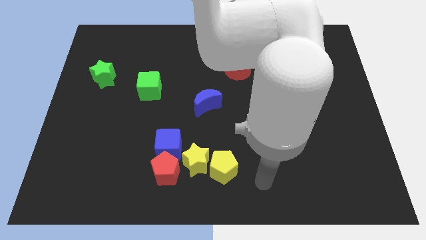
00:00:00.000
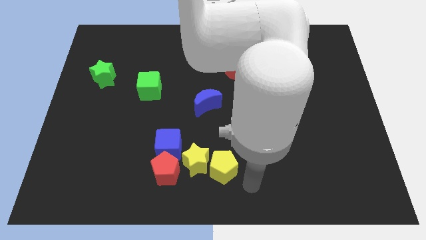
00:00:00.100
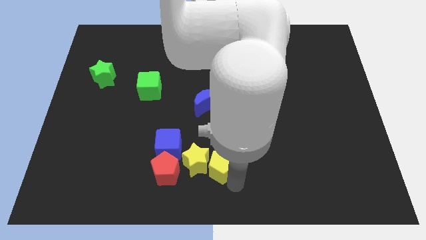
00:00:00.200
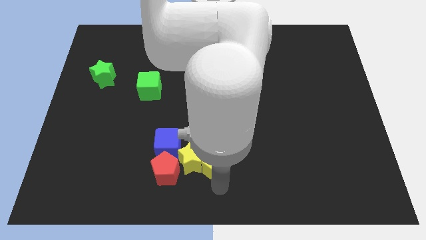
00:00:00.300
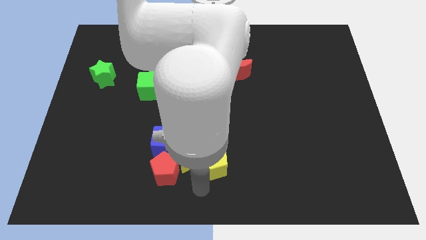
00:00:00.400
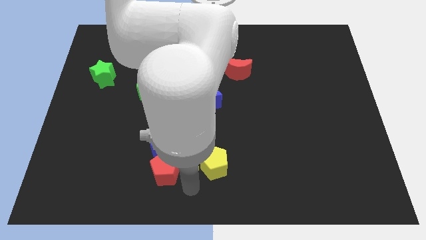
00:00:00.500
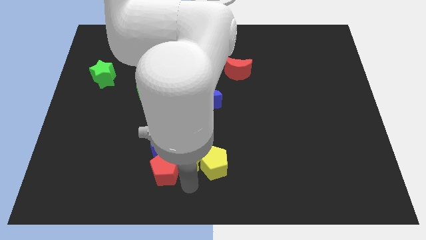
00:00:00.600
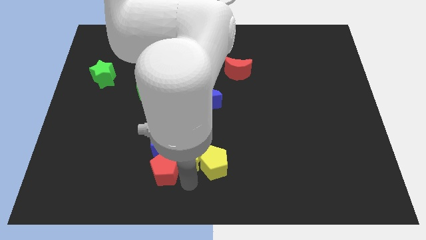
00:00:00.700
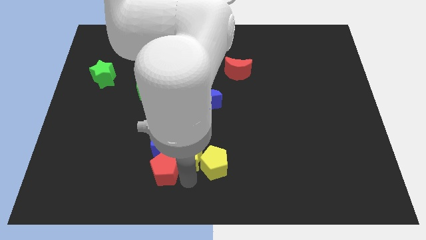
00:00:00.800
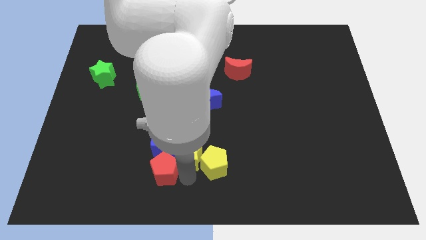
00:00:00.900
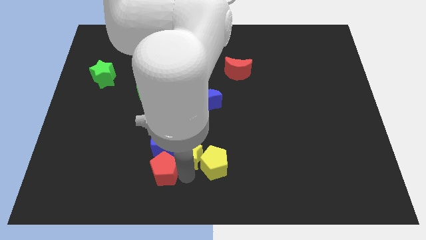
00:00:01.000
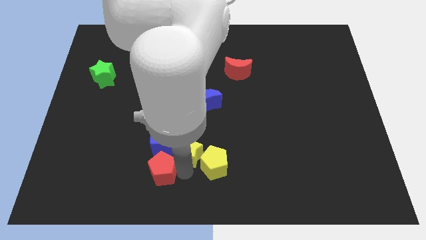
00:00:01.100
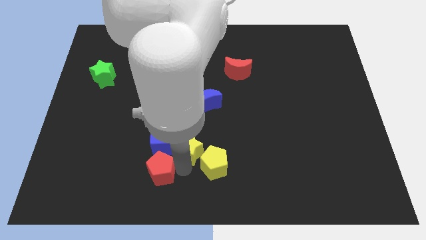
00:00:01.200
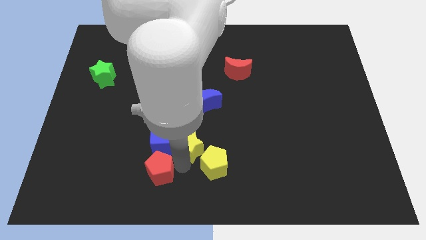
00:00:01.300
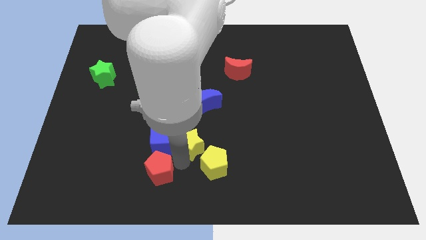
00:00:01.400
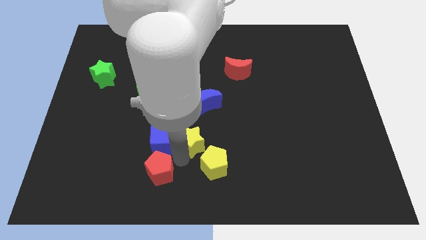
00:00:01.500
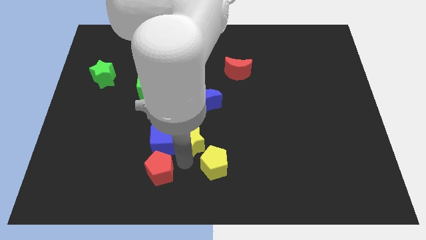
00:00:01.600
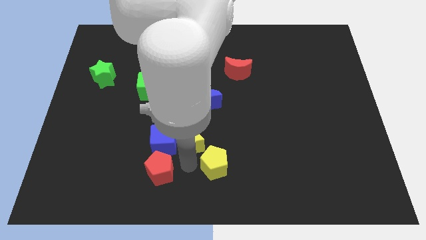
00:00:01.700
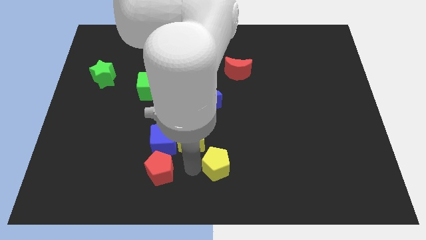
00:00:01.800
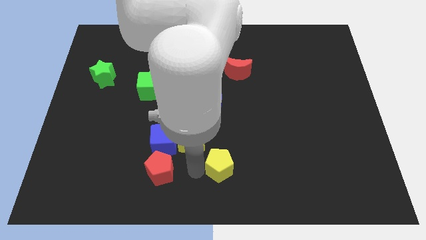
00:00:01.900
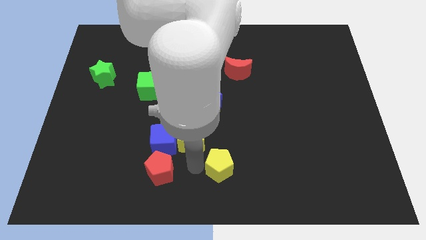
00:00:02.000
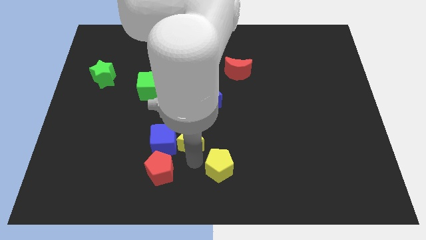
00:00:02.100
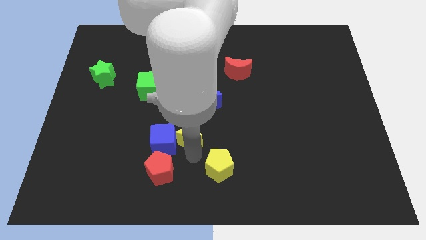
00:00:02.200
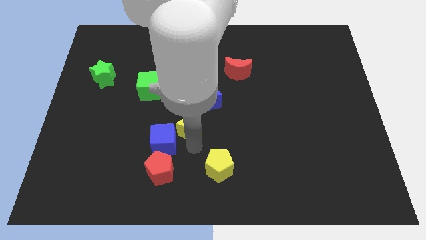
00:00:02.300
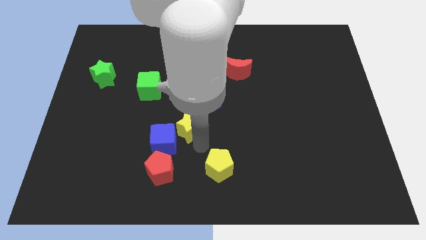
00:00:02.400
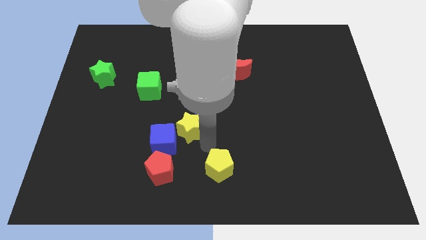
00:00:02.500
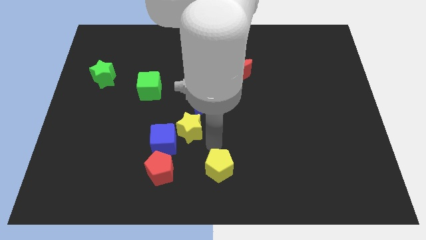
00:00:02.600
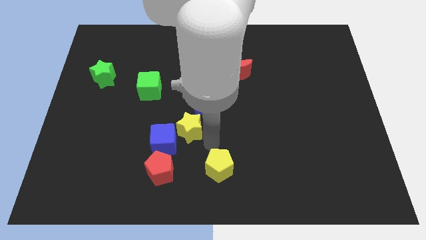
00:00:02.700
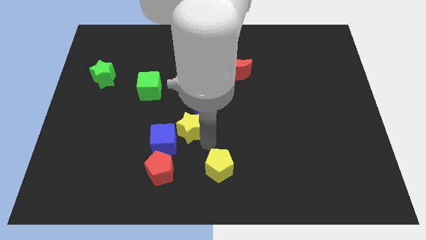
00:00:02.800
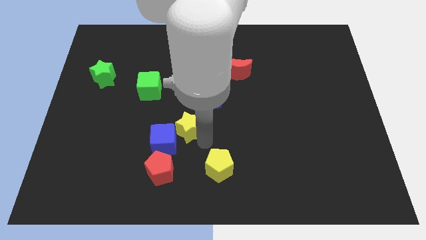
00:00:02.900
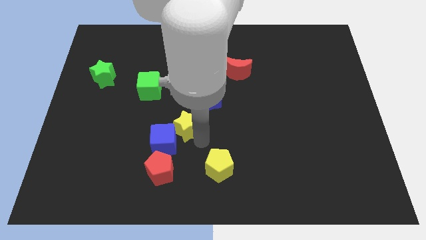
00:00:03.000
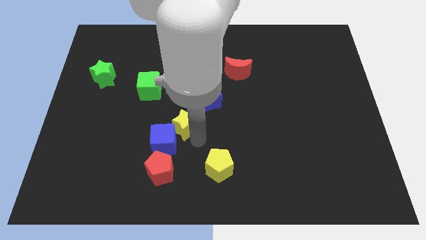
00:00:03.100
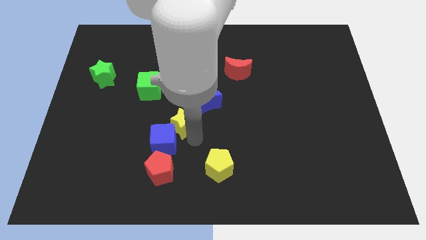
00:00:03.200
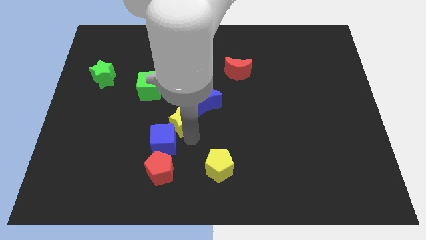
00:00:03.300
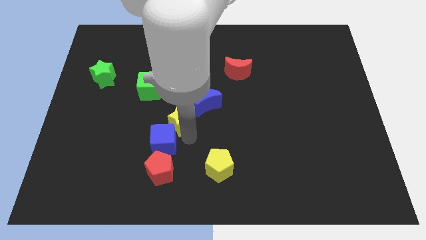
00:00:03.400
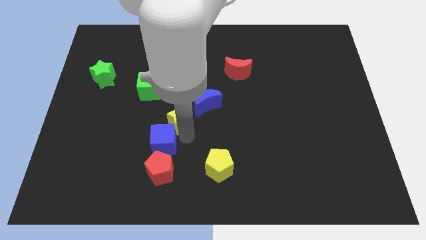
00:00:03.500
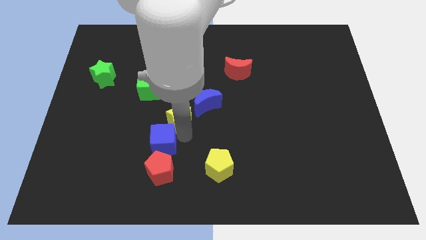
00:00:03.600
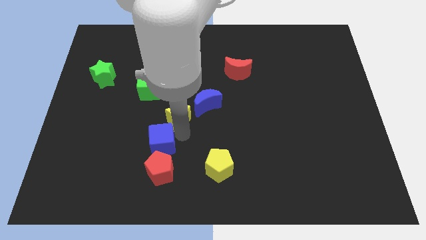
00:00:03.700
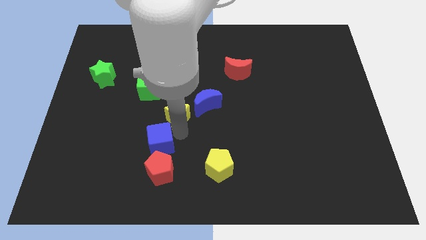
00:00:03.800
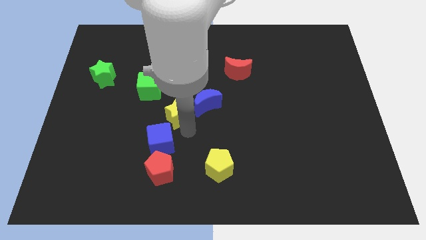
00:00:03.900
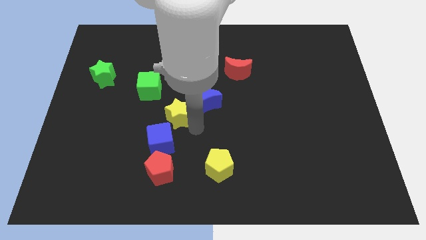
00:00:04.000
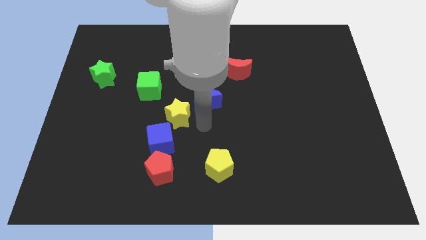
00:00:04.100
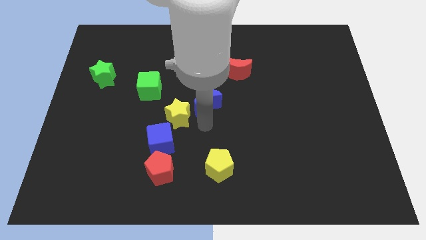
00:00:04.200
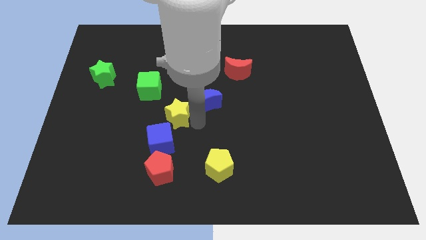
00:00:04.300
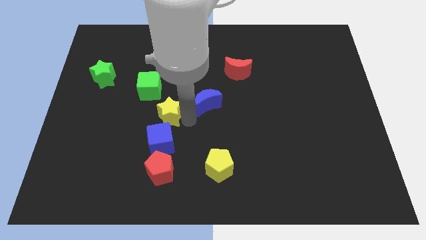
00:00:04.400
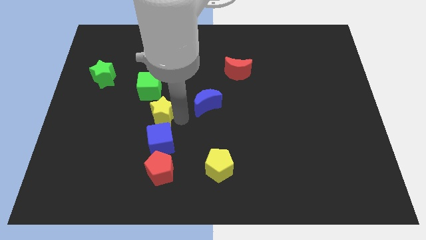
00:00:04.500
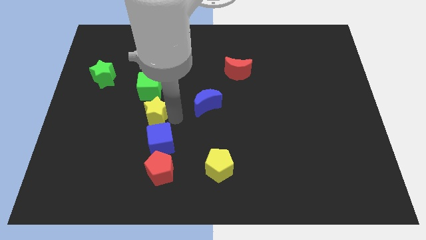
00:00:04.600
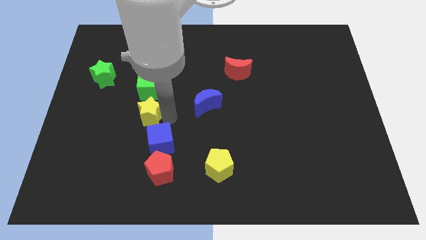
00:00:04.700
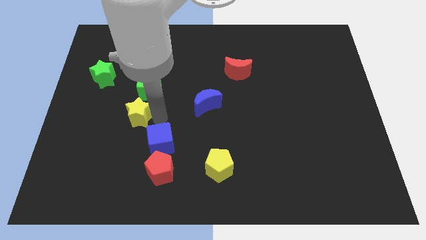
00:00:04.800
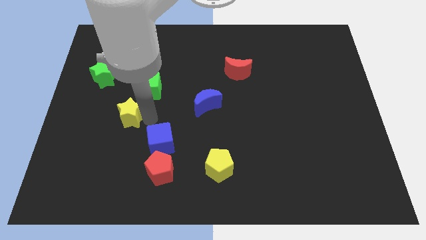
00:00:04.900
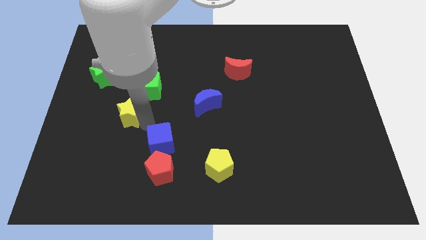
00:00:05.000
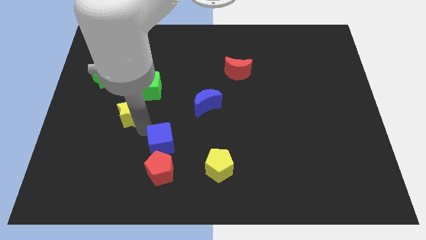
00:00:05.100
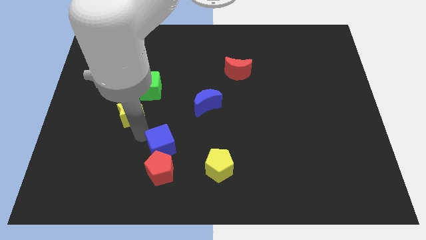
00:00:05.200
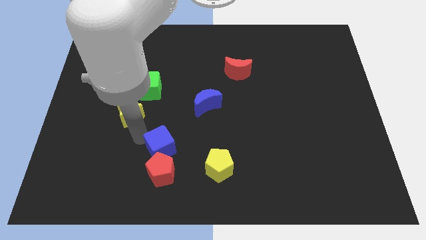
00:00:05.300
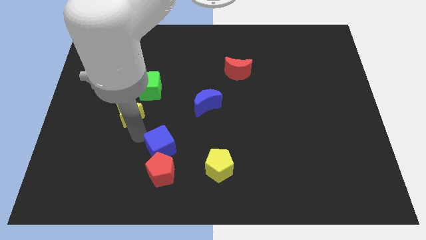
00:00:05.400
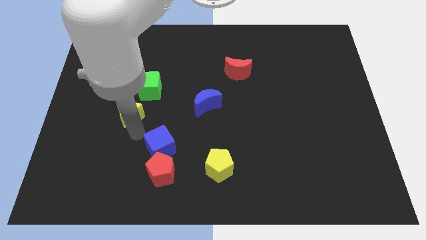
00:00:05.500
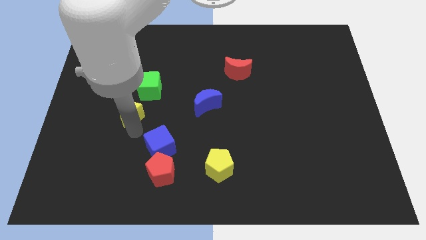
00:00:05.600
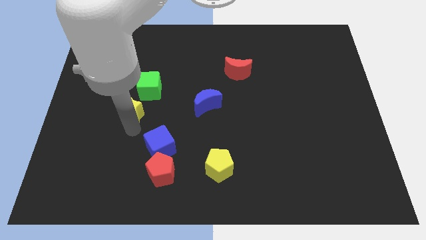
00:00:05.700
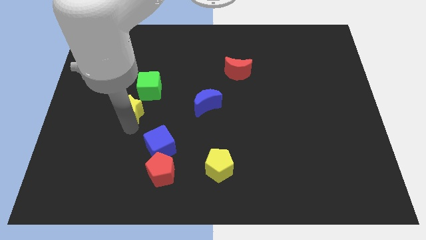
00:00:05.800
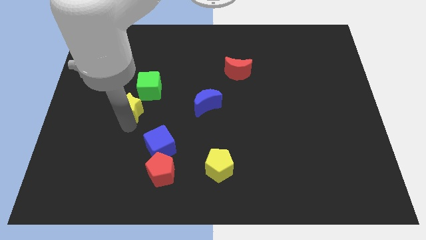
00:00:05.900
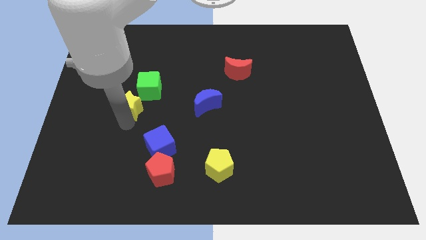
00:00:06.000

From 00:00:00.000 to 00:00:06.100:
put the yellow star to the bottom right of the green star
